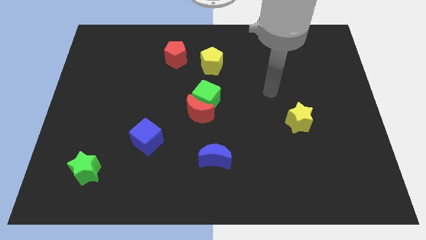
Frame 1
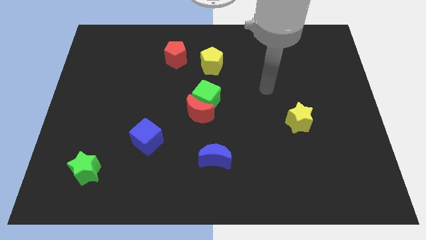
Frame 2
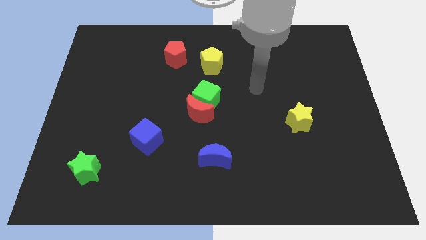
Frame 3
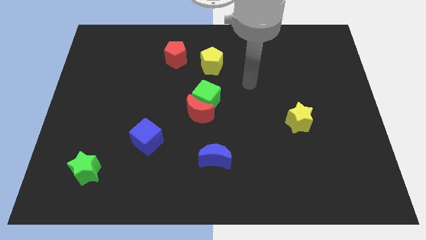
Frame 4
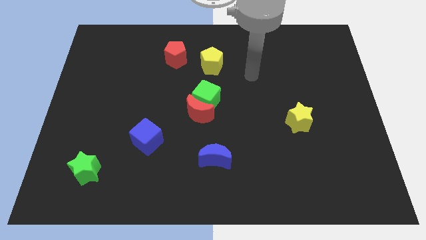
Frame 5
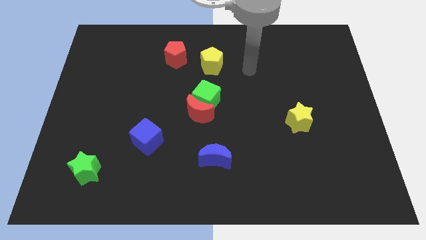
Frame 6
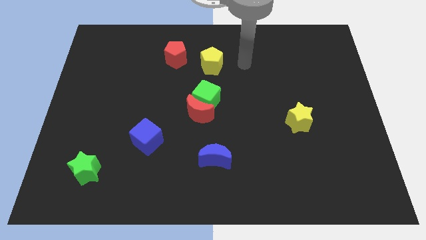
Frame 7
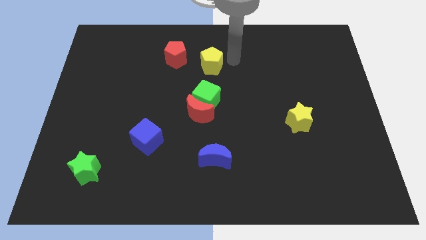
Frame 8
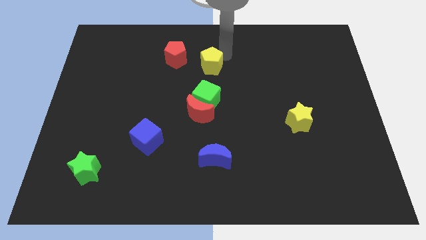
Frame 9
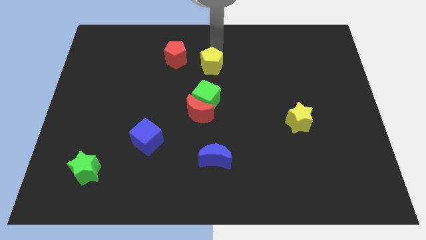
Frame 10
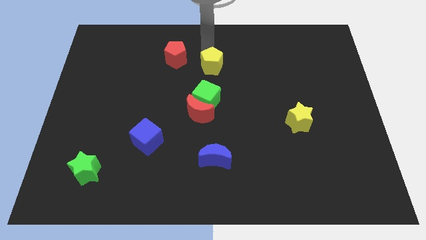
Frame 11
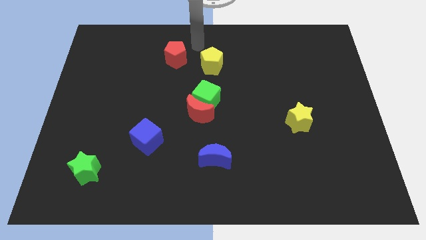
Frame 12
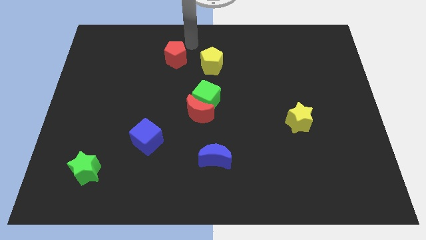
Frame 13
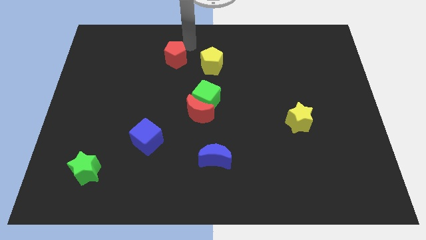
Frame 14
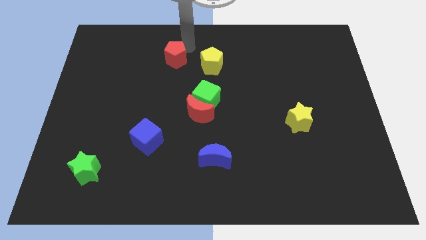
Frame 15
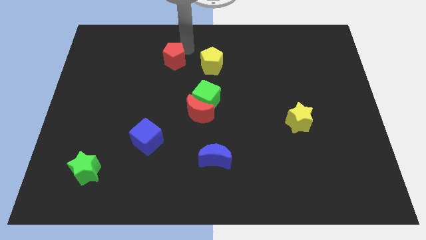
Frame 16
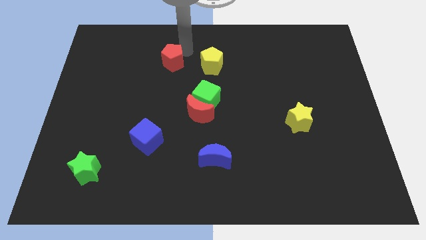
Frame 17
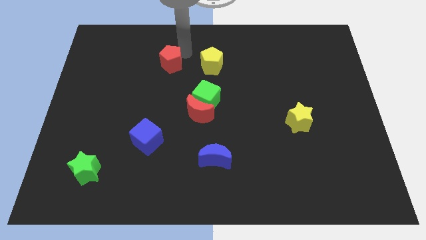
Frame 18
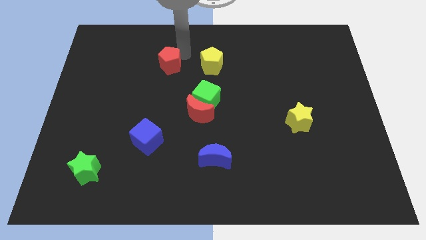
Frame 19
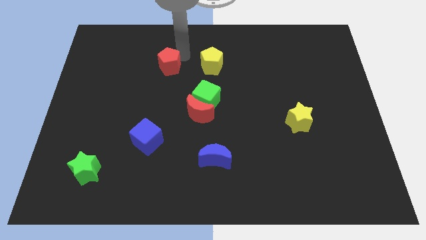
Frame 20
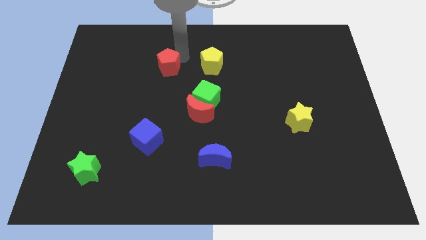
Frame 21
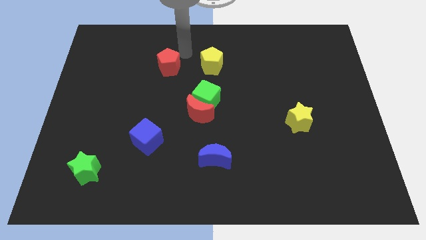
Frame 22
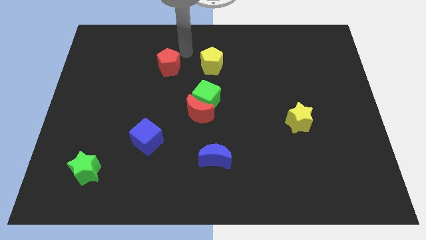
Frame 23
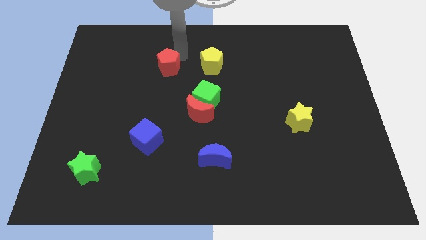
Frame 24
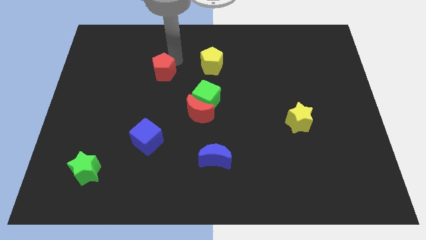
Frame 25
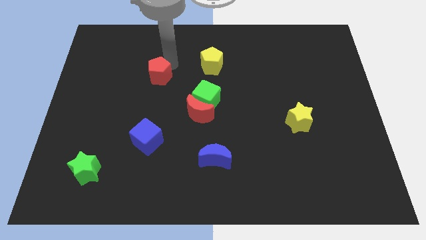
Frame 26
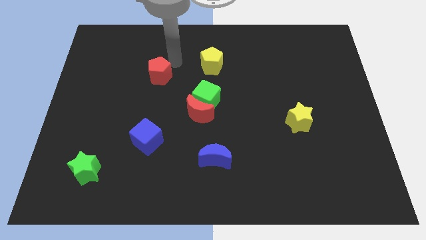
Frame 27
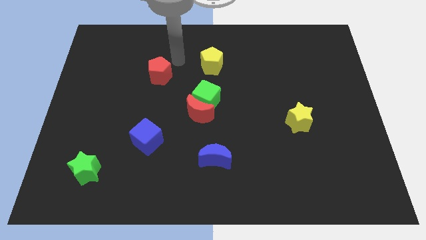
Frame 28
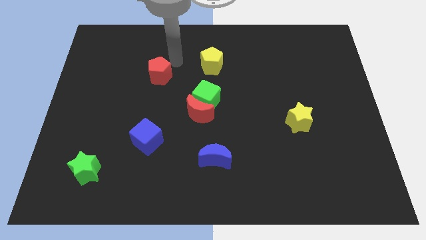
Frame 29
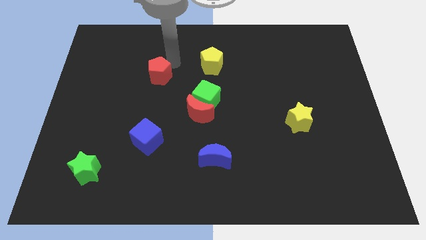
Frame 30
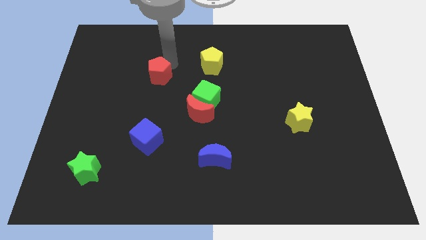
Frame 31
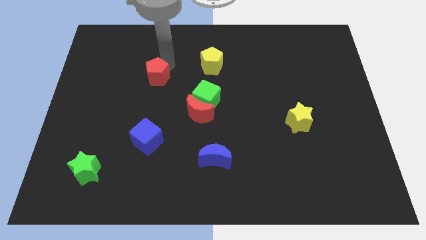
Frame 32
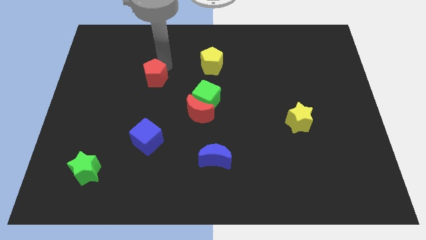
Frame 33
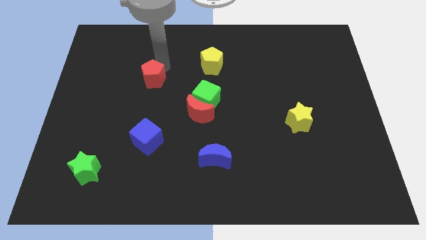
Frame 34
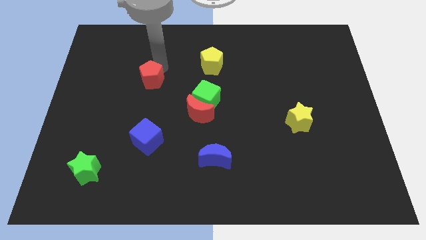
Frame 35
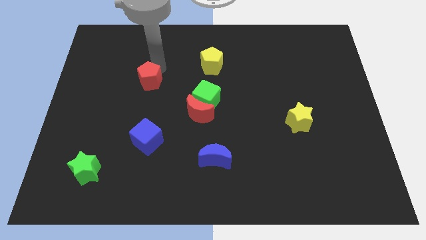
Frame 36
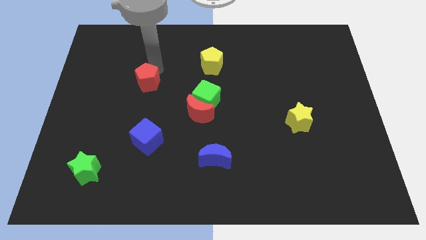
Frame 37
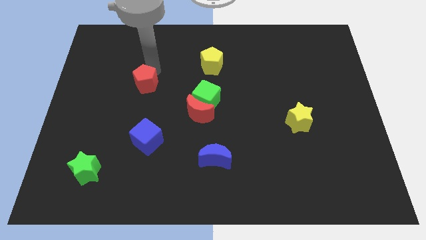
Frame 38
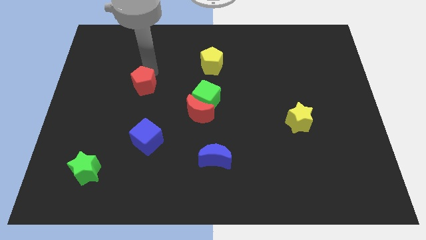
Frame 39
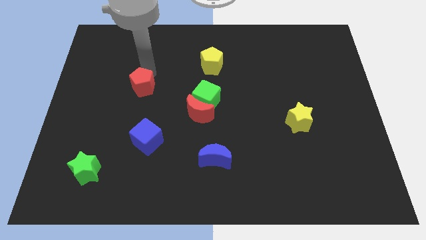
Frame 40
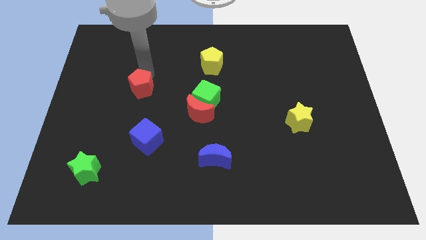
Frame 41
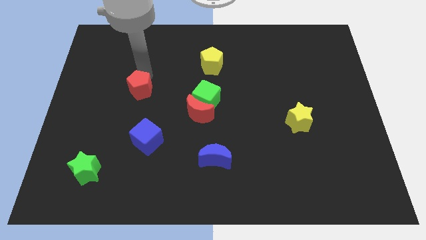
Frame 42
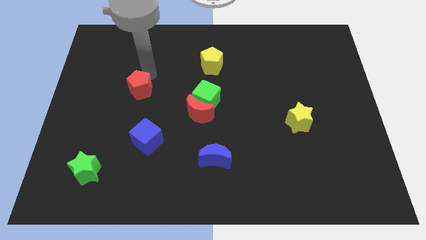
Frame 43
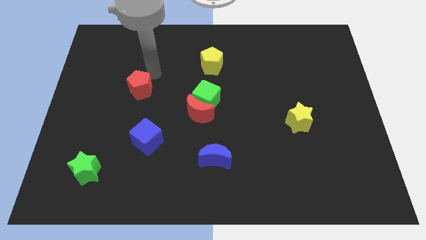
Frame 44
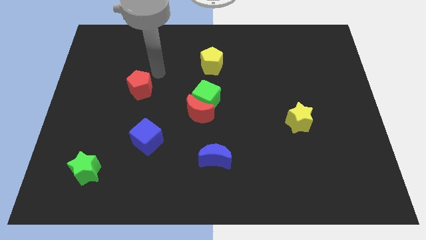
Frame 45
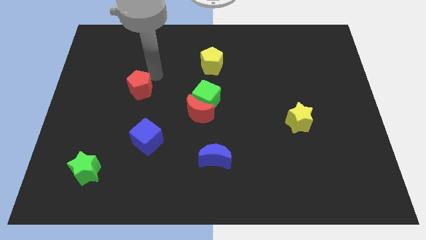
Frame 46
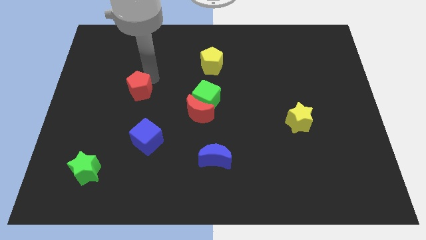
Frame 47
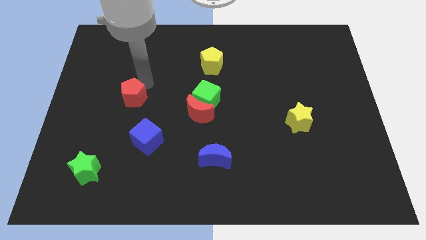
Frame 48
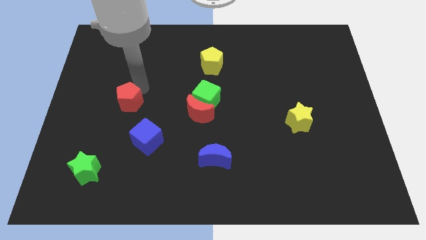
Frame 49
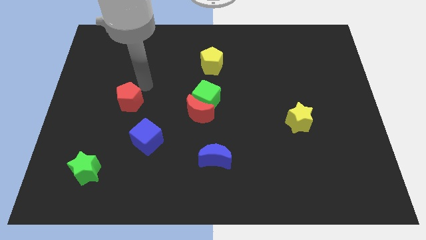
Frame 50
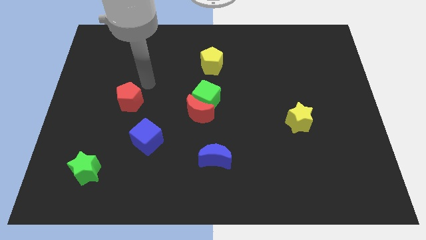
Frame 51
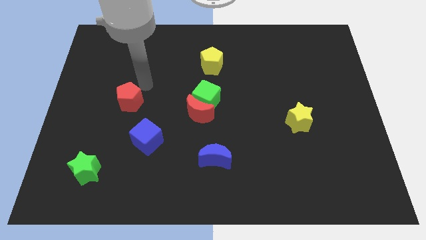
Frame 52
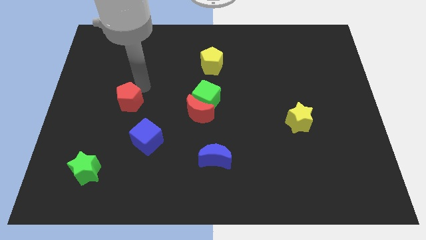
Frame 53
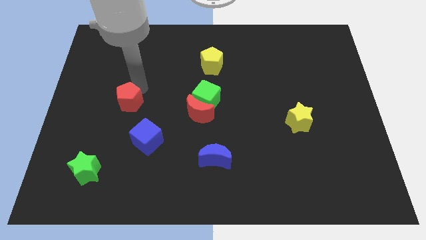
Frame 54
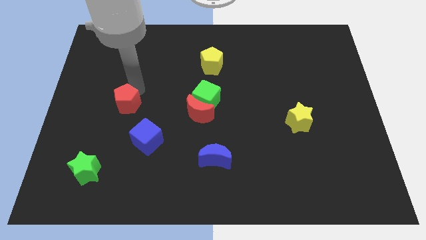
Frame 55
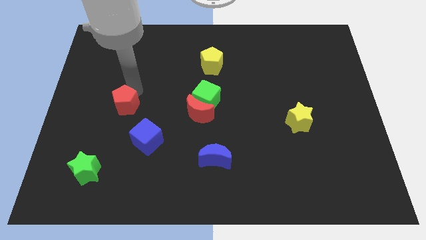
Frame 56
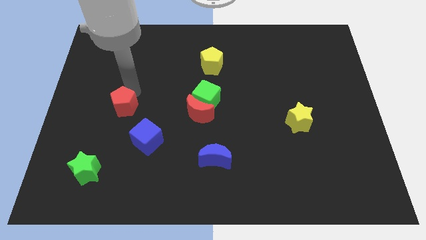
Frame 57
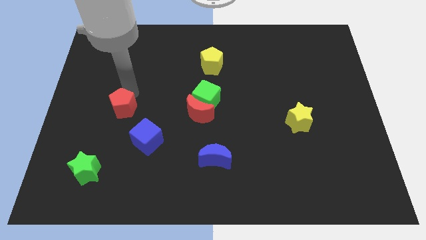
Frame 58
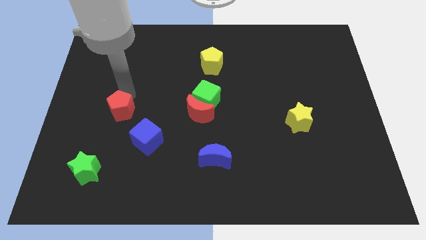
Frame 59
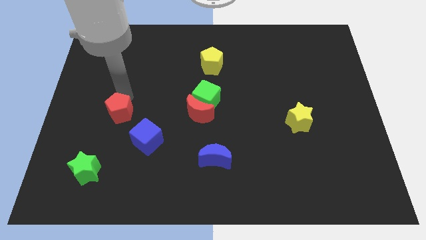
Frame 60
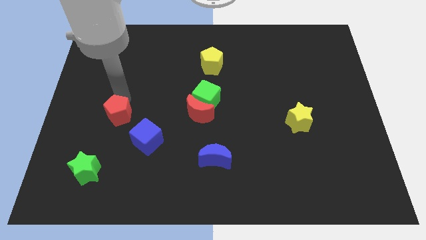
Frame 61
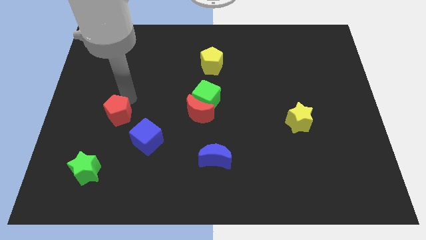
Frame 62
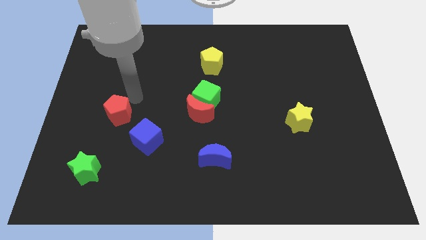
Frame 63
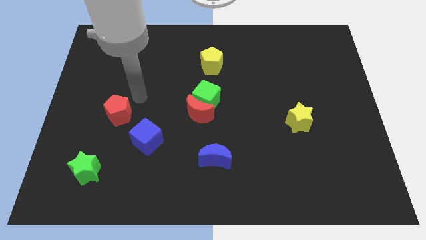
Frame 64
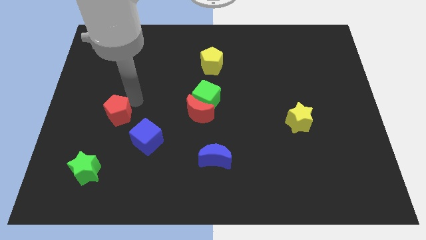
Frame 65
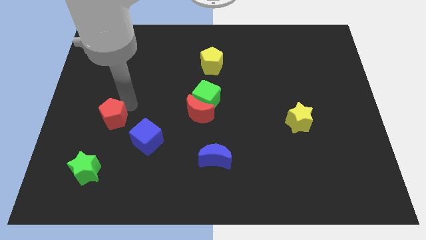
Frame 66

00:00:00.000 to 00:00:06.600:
slide the red pentagon above the green star
